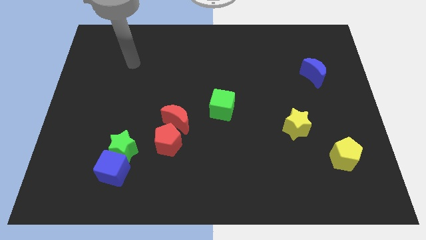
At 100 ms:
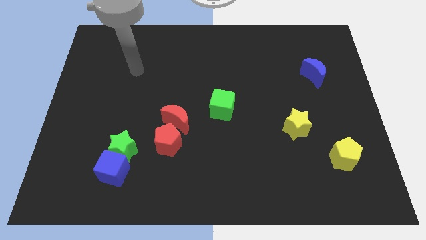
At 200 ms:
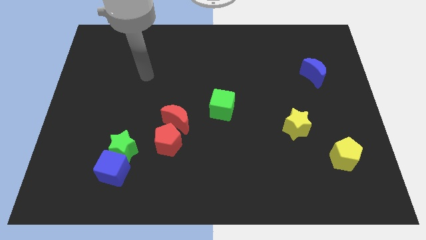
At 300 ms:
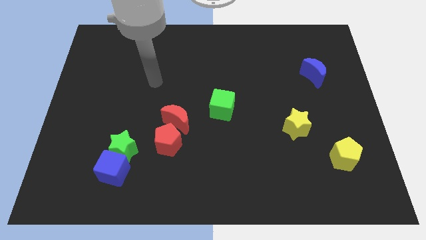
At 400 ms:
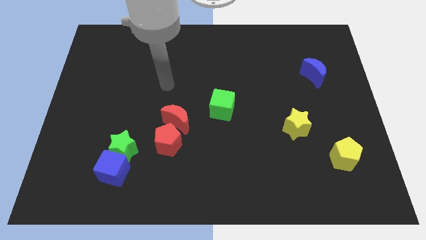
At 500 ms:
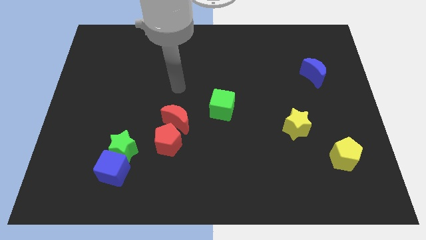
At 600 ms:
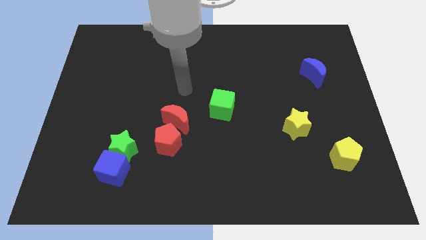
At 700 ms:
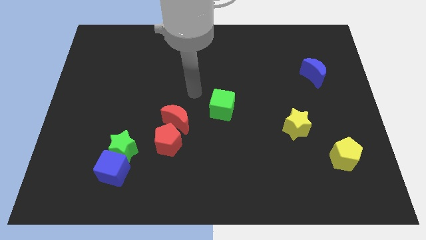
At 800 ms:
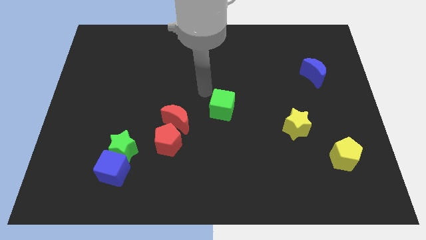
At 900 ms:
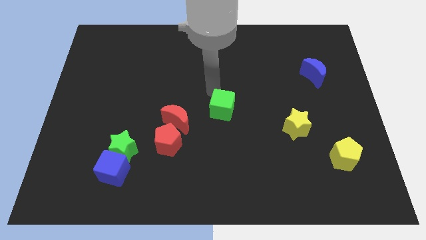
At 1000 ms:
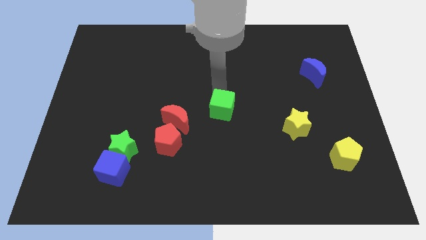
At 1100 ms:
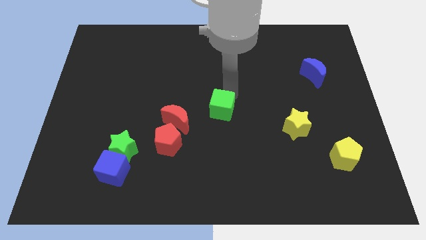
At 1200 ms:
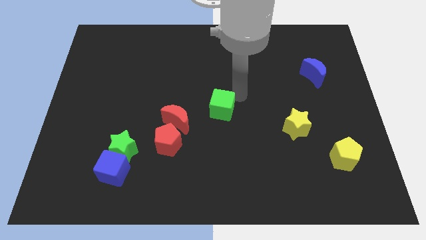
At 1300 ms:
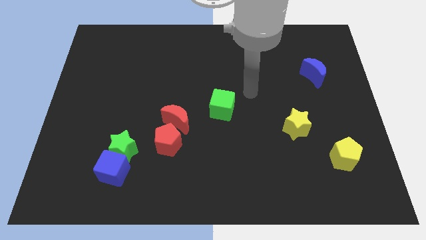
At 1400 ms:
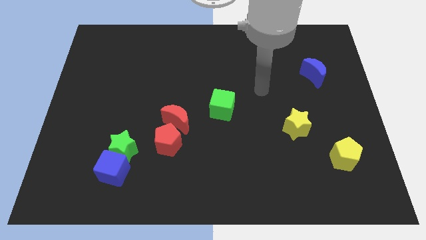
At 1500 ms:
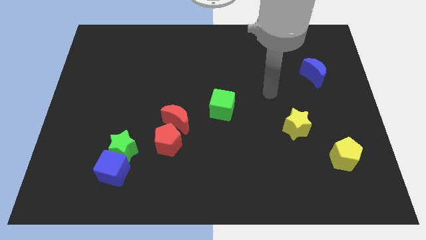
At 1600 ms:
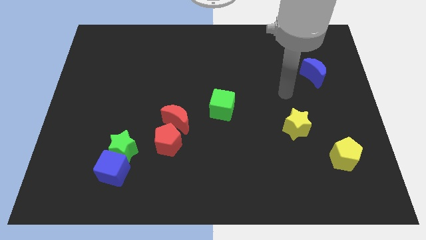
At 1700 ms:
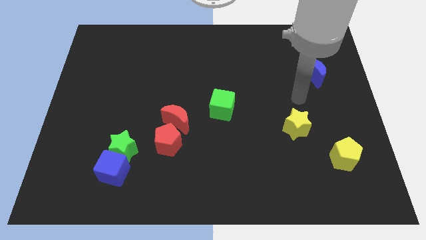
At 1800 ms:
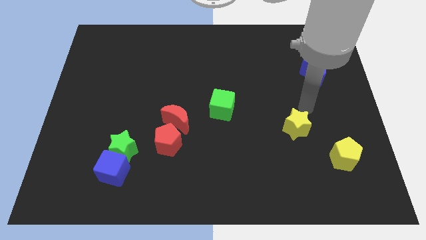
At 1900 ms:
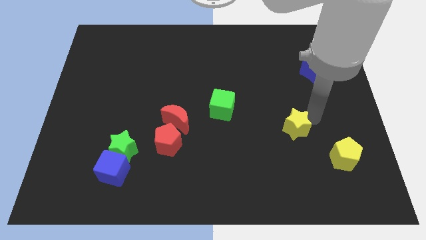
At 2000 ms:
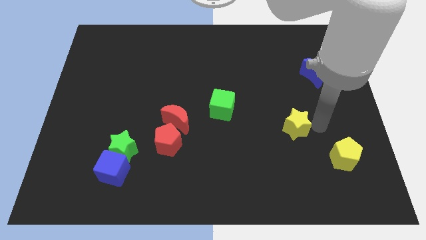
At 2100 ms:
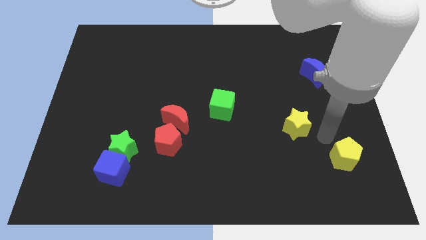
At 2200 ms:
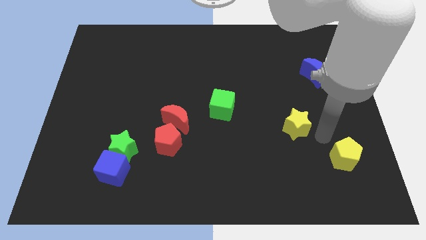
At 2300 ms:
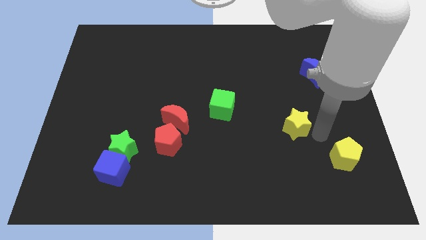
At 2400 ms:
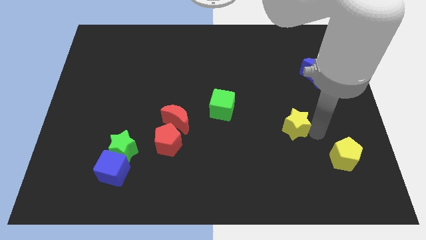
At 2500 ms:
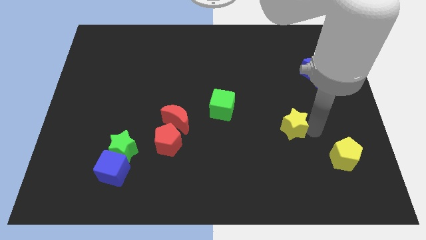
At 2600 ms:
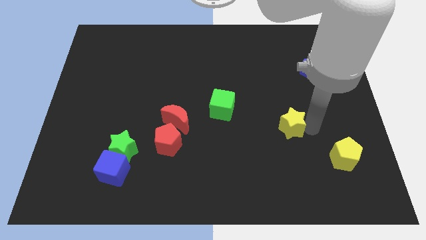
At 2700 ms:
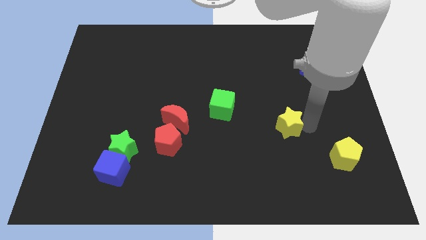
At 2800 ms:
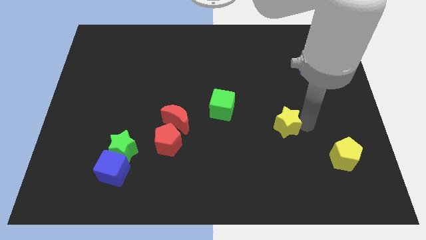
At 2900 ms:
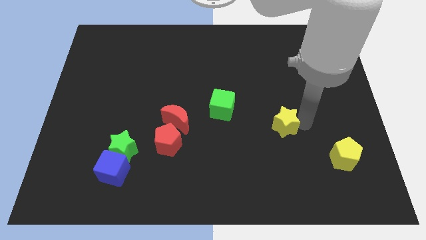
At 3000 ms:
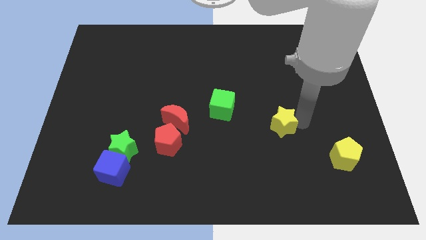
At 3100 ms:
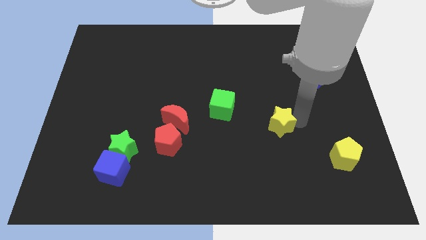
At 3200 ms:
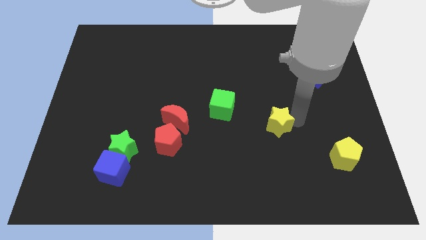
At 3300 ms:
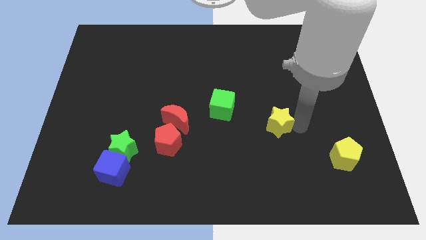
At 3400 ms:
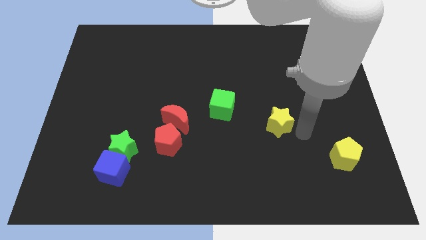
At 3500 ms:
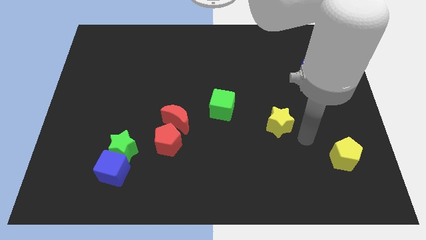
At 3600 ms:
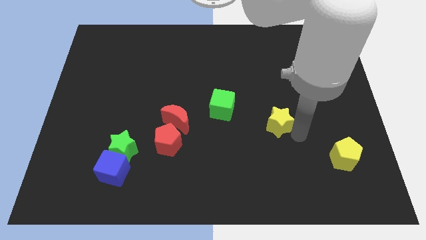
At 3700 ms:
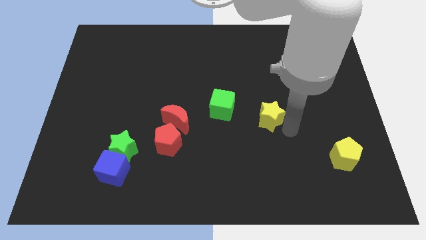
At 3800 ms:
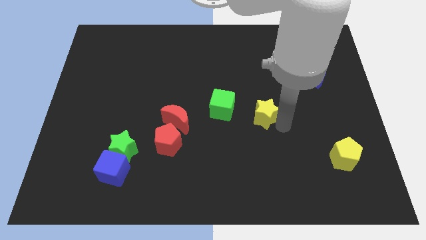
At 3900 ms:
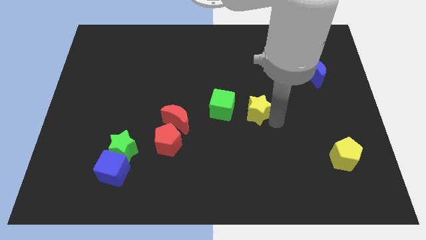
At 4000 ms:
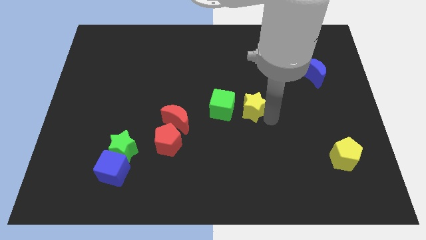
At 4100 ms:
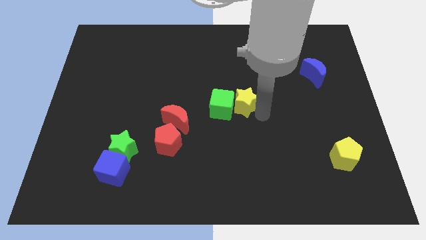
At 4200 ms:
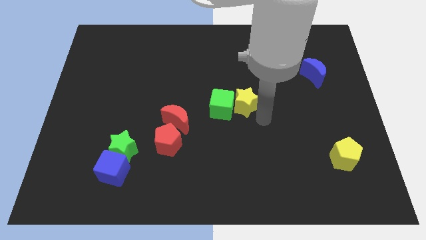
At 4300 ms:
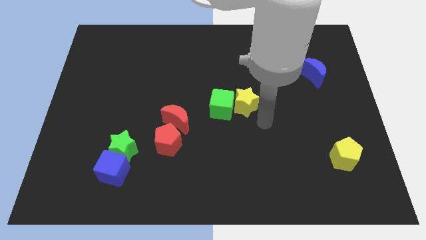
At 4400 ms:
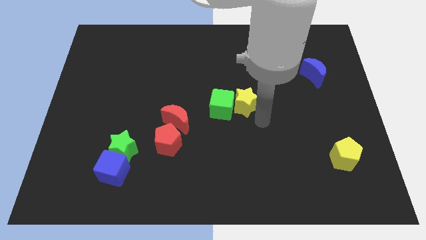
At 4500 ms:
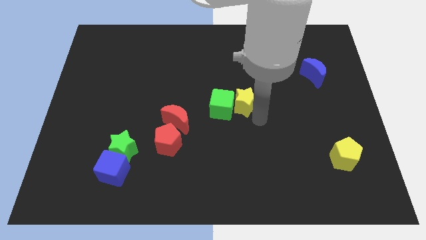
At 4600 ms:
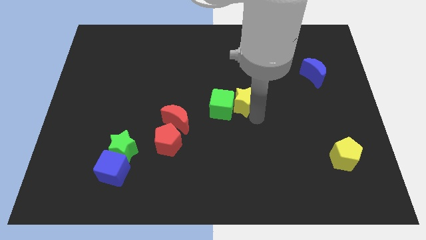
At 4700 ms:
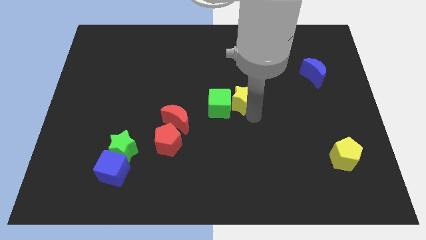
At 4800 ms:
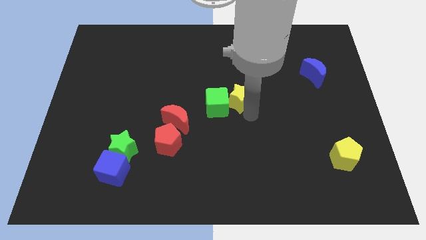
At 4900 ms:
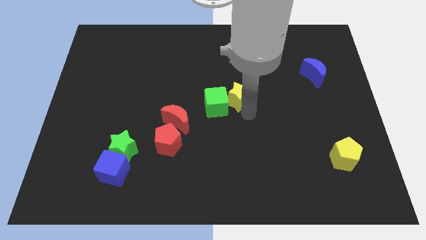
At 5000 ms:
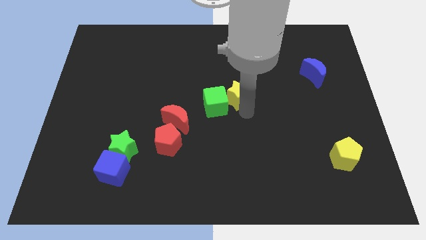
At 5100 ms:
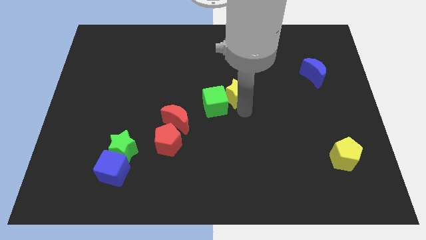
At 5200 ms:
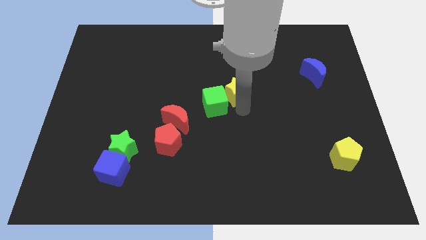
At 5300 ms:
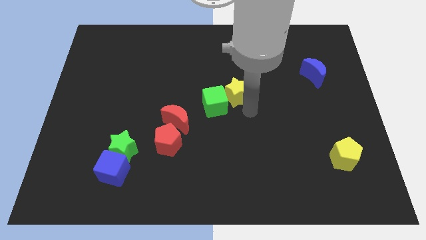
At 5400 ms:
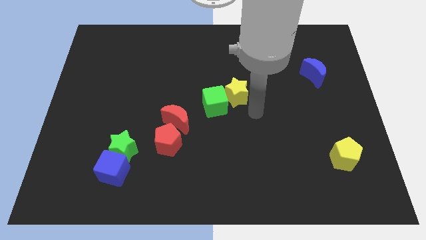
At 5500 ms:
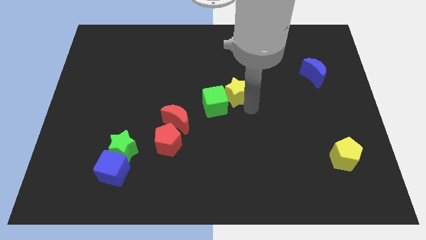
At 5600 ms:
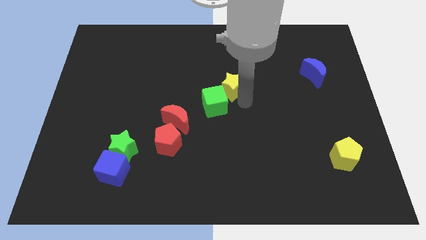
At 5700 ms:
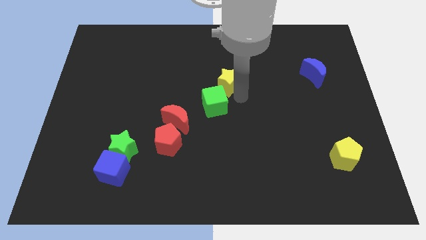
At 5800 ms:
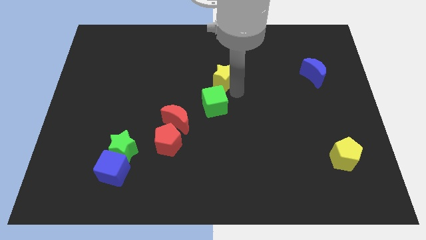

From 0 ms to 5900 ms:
push the yellow star diagonally upwards and left

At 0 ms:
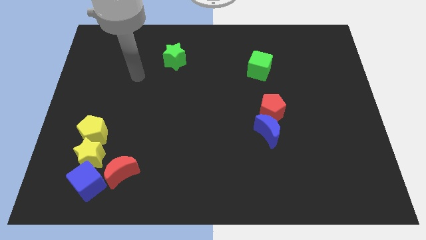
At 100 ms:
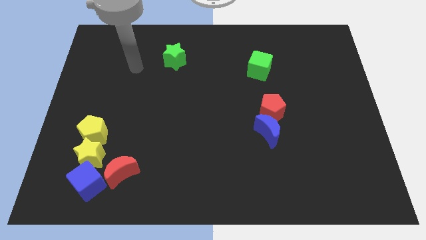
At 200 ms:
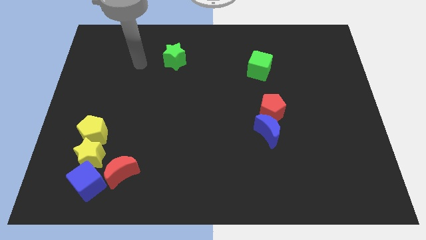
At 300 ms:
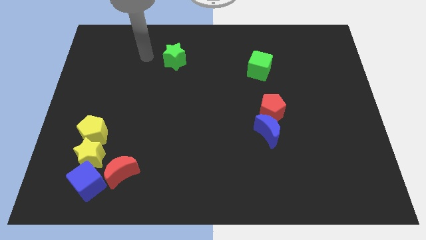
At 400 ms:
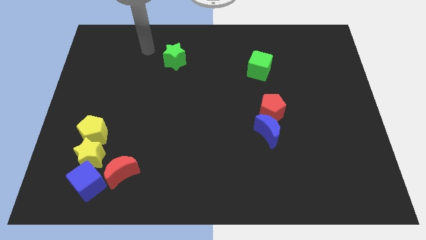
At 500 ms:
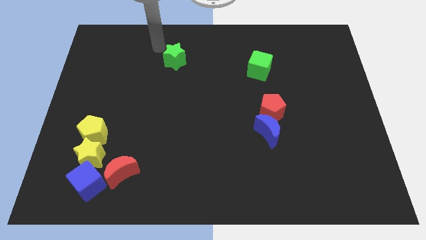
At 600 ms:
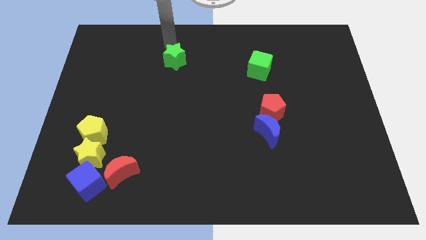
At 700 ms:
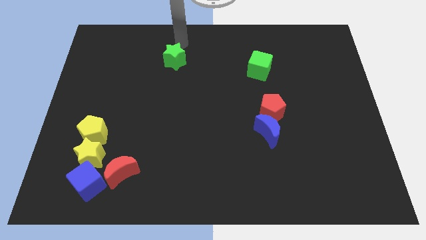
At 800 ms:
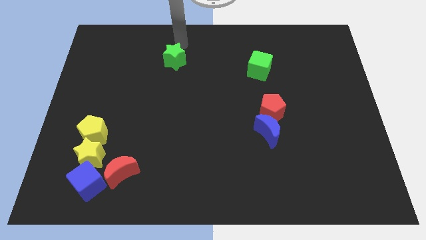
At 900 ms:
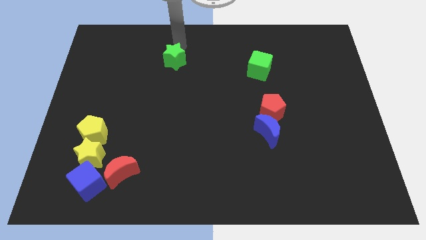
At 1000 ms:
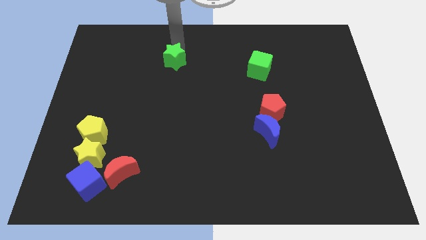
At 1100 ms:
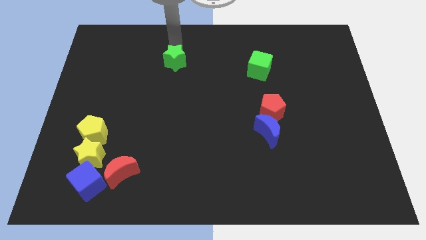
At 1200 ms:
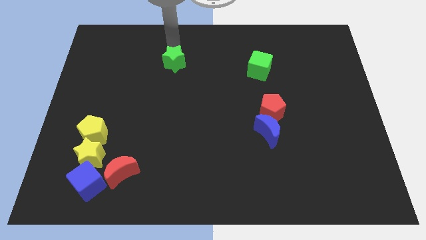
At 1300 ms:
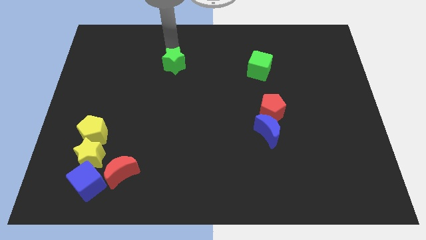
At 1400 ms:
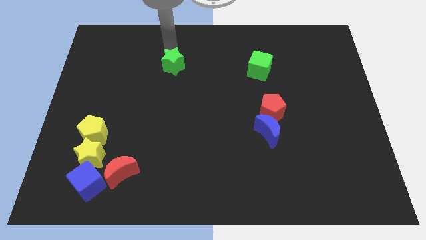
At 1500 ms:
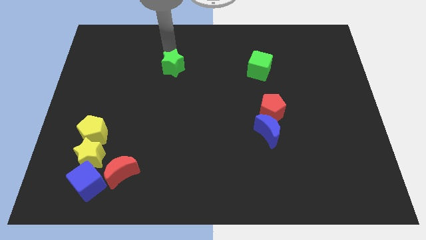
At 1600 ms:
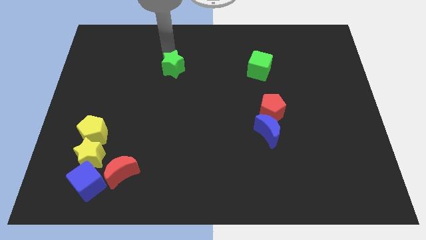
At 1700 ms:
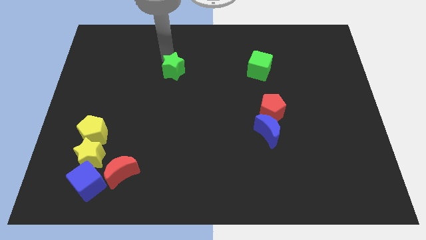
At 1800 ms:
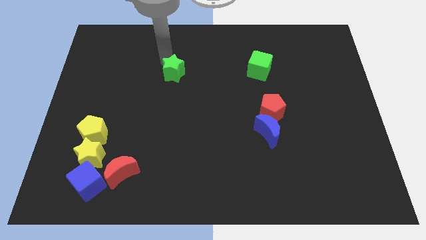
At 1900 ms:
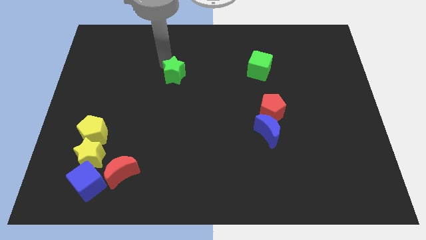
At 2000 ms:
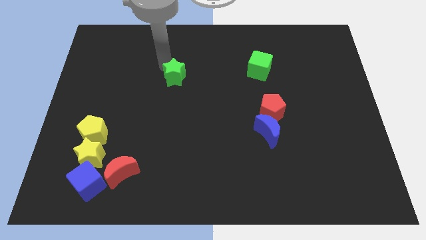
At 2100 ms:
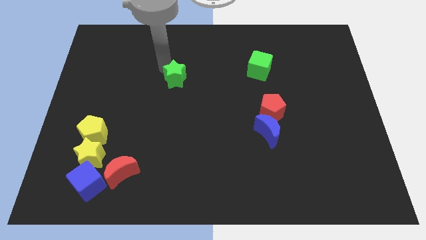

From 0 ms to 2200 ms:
push the green star downwards slightly

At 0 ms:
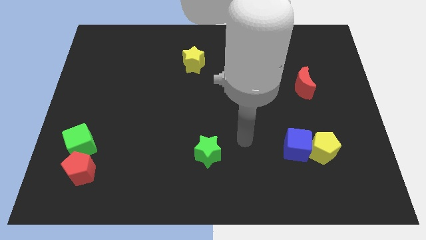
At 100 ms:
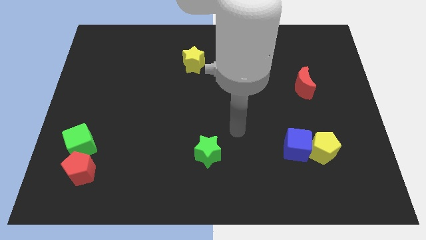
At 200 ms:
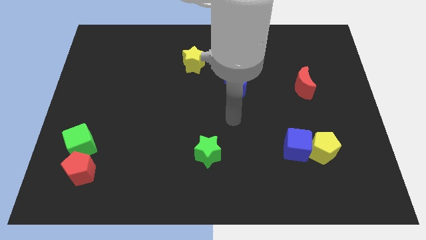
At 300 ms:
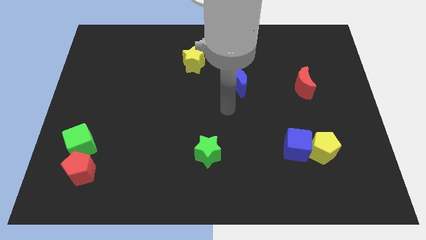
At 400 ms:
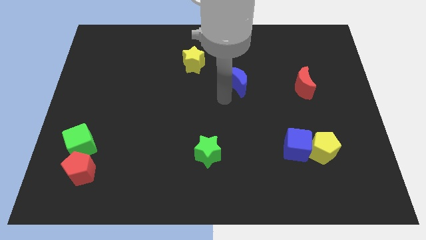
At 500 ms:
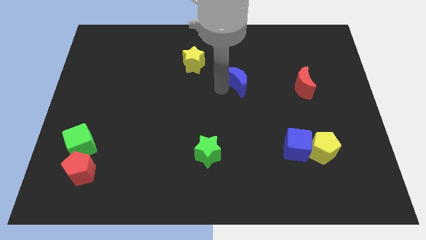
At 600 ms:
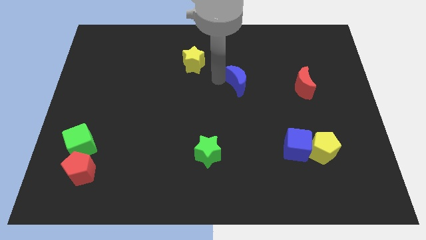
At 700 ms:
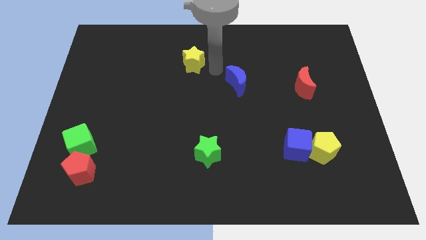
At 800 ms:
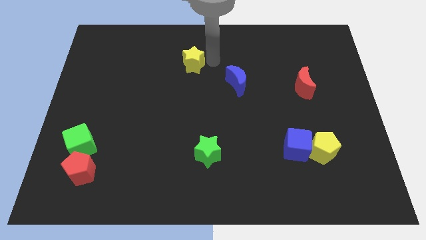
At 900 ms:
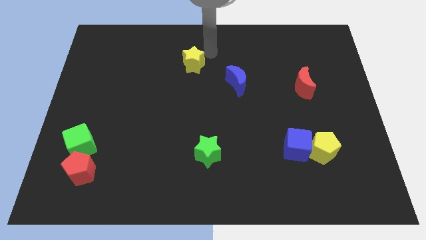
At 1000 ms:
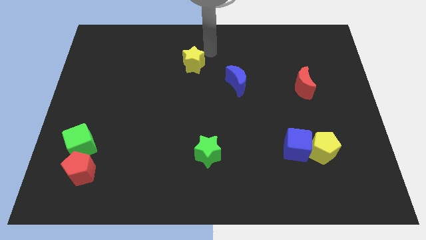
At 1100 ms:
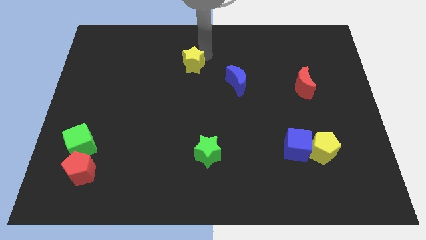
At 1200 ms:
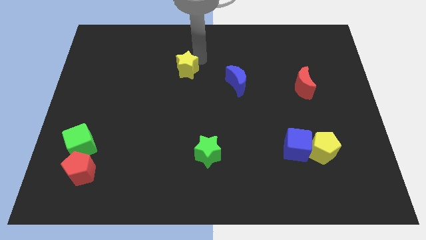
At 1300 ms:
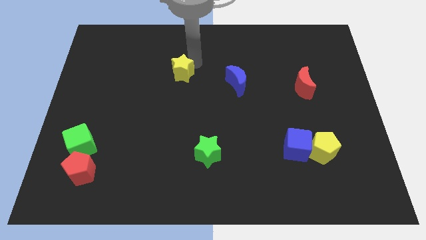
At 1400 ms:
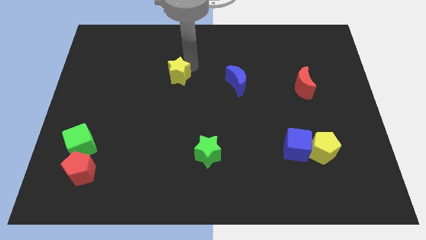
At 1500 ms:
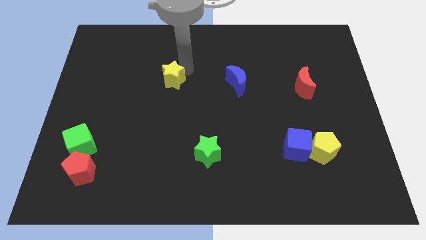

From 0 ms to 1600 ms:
move the yellow star somewhat down and then to the left
